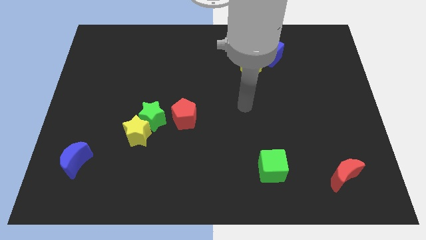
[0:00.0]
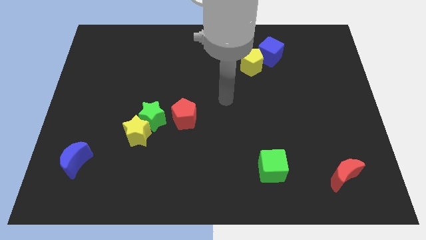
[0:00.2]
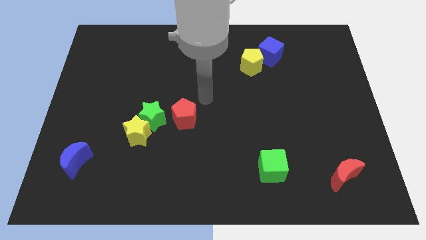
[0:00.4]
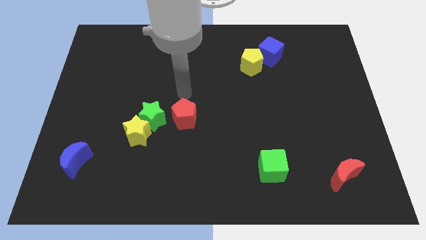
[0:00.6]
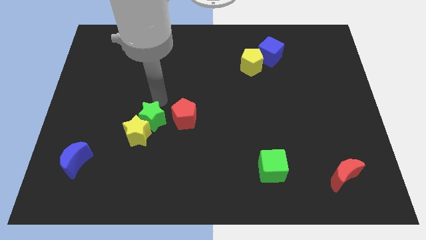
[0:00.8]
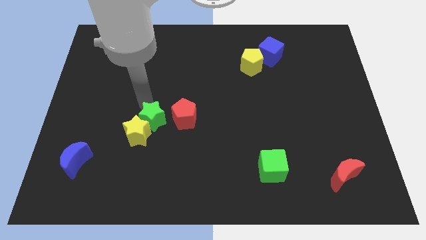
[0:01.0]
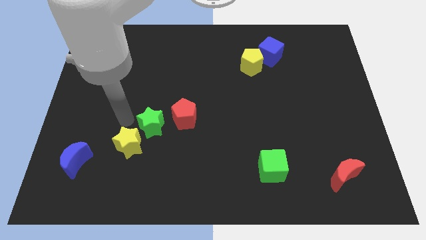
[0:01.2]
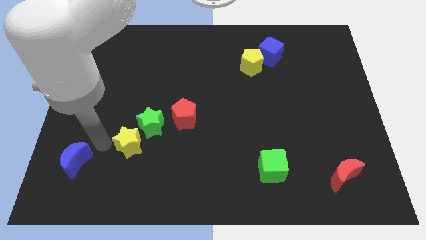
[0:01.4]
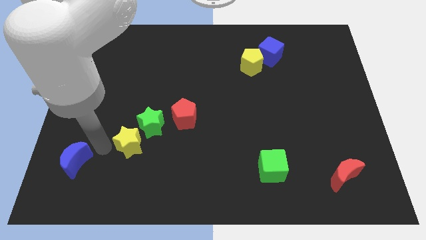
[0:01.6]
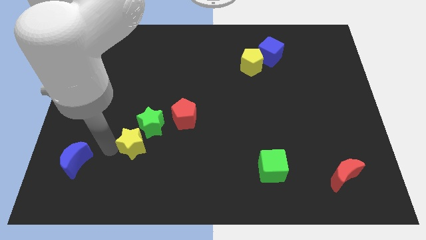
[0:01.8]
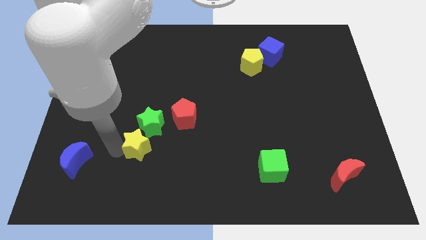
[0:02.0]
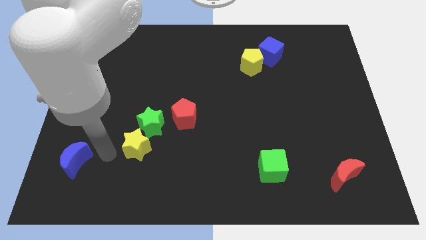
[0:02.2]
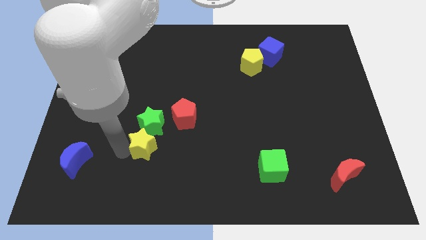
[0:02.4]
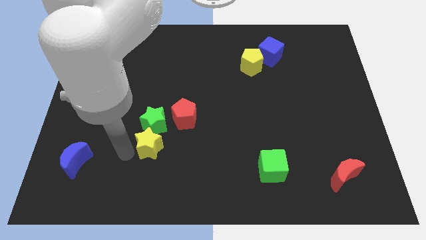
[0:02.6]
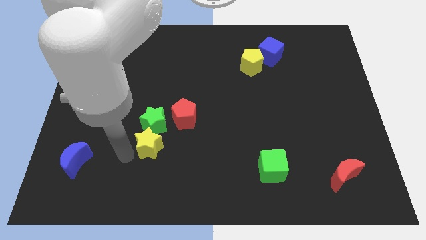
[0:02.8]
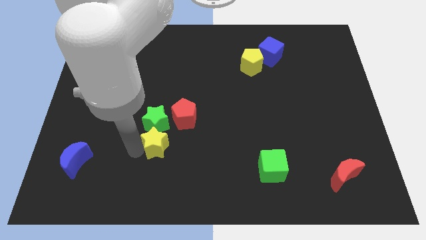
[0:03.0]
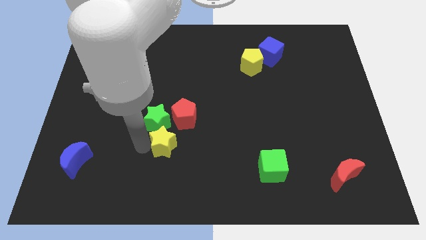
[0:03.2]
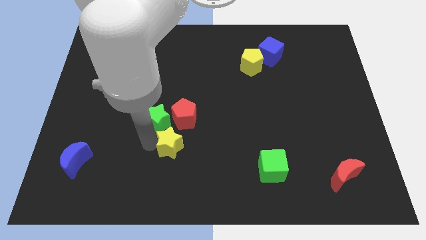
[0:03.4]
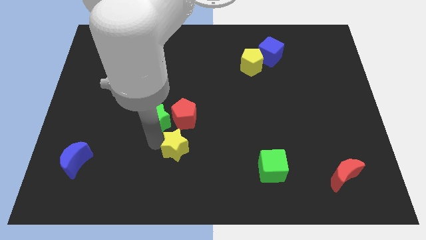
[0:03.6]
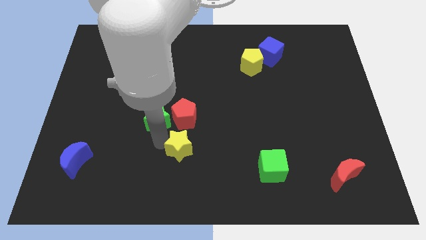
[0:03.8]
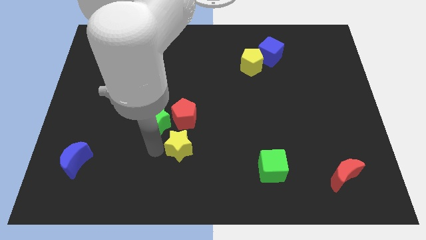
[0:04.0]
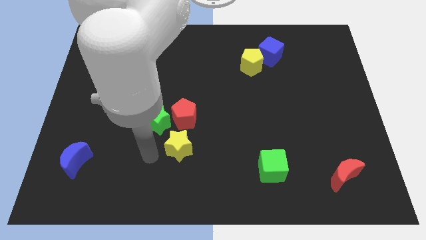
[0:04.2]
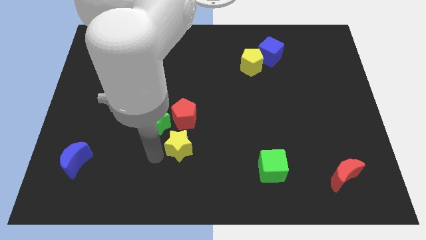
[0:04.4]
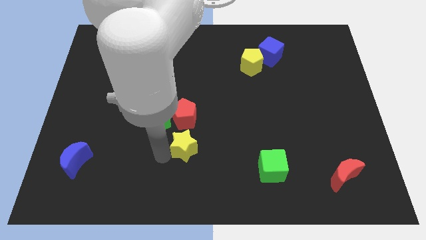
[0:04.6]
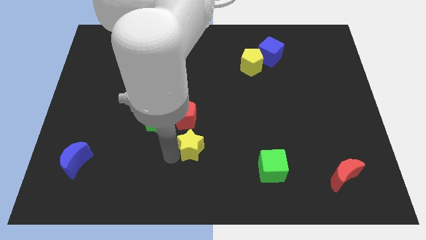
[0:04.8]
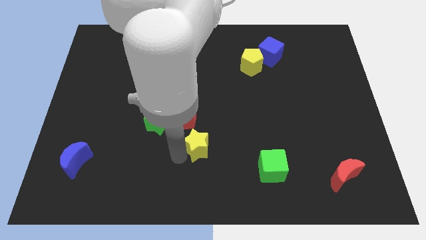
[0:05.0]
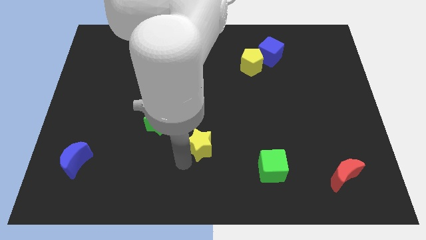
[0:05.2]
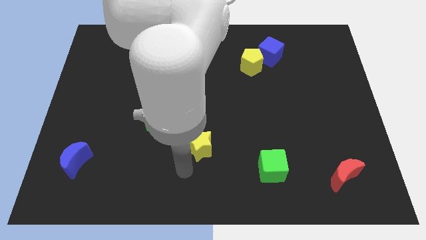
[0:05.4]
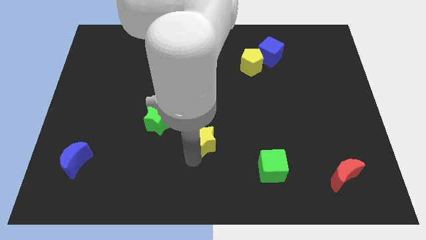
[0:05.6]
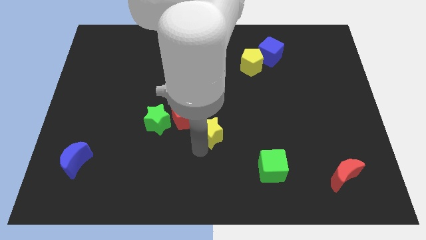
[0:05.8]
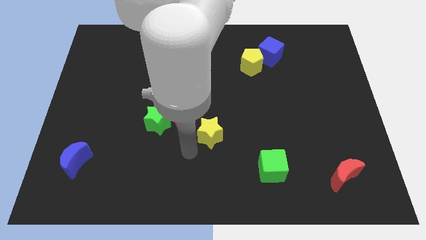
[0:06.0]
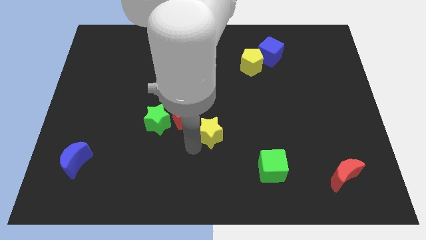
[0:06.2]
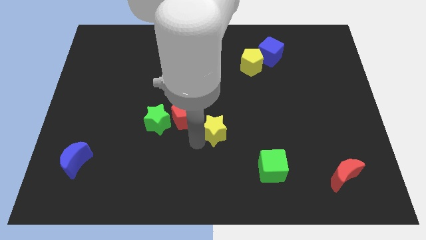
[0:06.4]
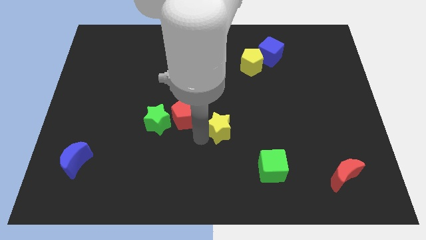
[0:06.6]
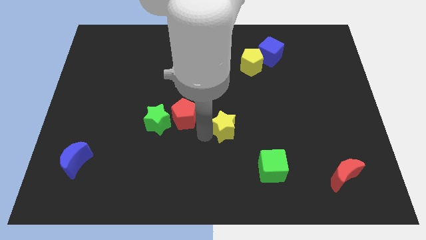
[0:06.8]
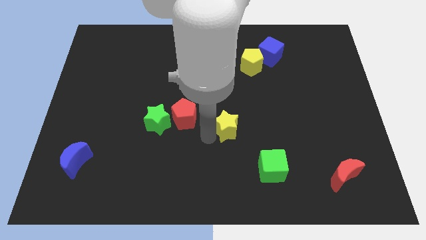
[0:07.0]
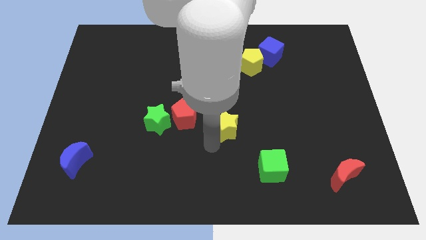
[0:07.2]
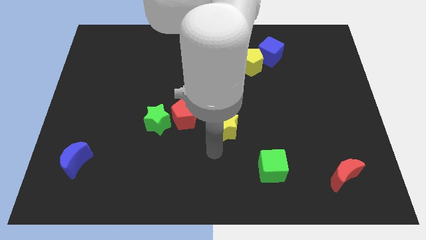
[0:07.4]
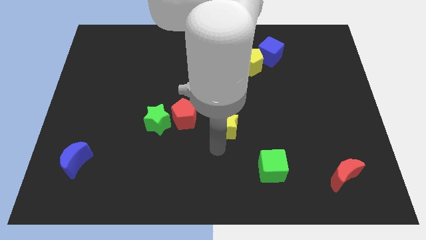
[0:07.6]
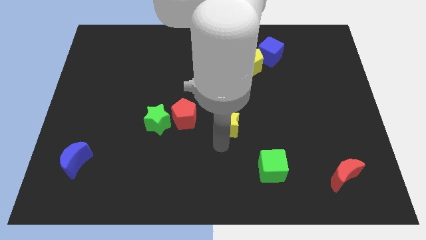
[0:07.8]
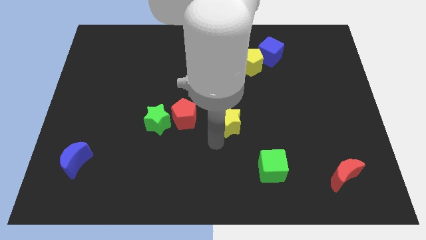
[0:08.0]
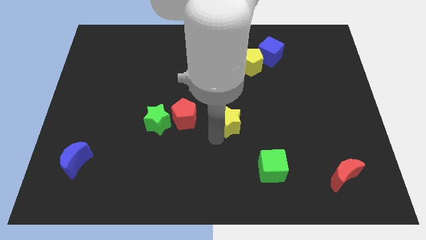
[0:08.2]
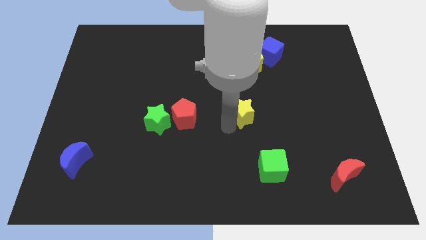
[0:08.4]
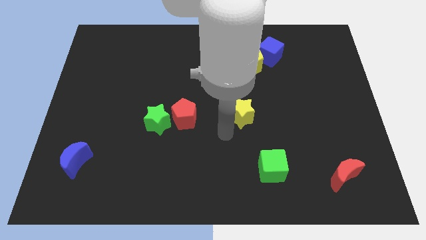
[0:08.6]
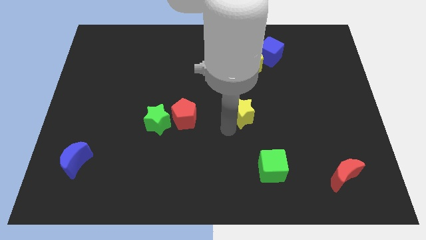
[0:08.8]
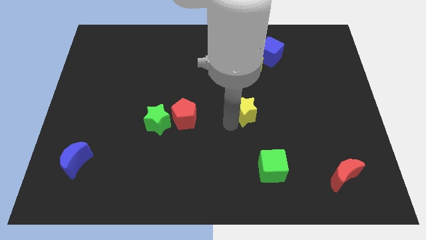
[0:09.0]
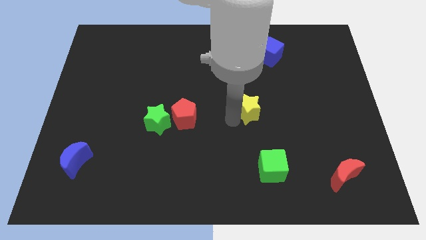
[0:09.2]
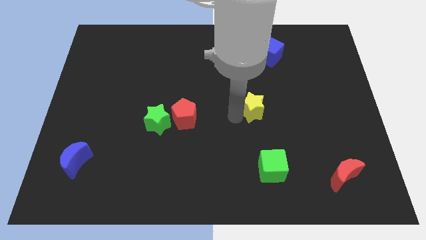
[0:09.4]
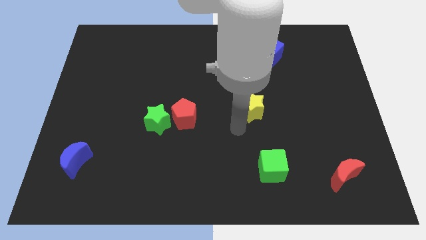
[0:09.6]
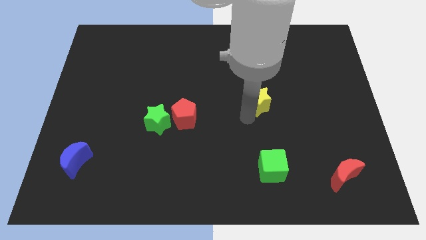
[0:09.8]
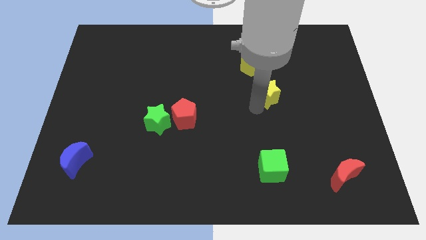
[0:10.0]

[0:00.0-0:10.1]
push the yellow star to the bottom side of the blue cube

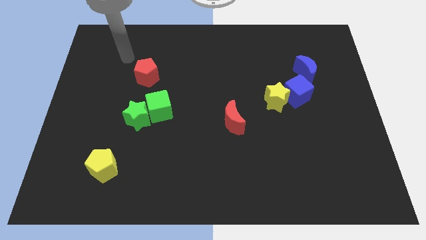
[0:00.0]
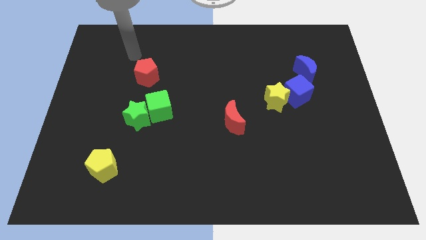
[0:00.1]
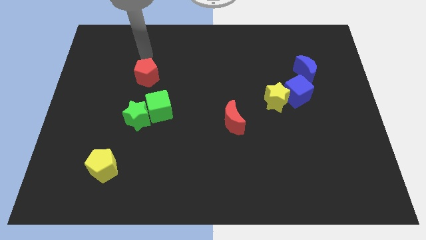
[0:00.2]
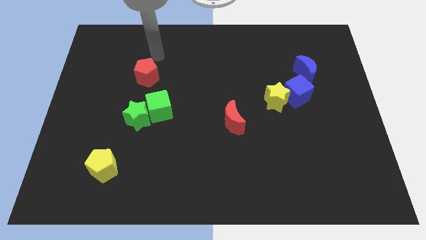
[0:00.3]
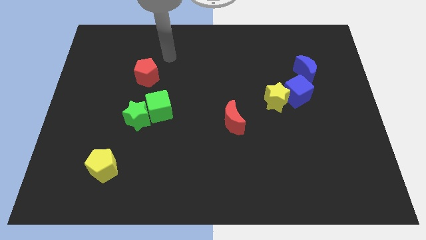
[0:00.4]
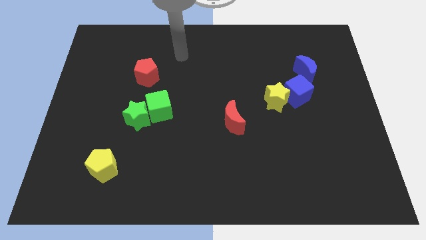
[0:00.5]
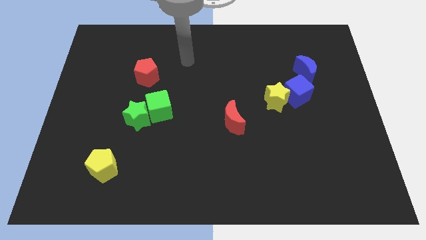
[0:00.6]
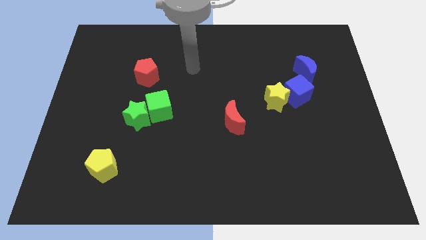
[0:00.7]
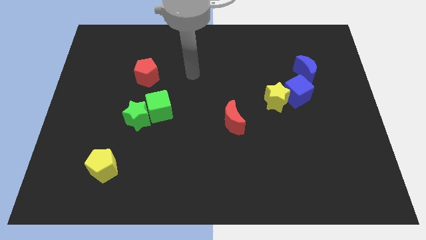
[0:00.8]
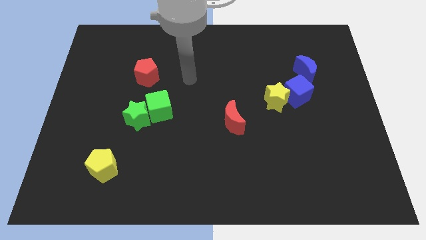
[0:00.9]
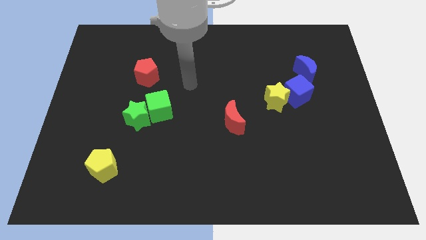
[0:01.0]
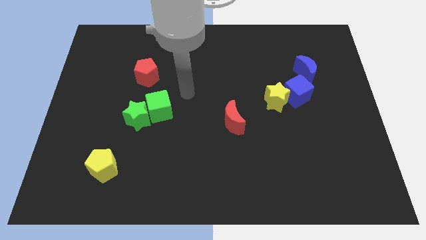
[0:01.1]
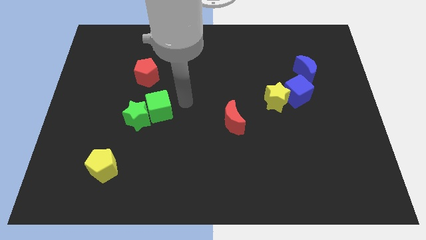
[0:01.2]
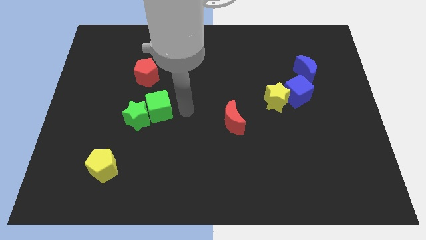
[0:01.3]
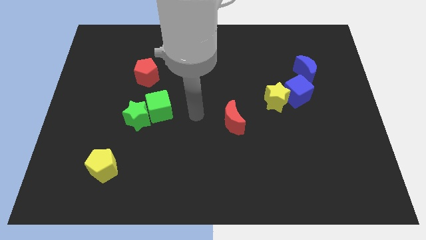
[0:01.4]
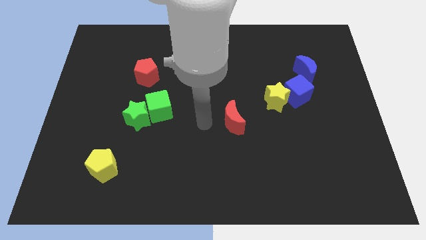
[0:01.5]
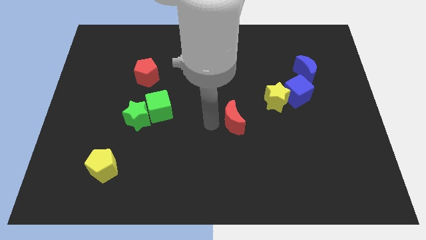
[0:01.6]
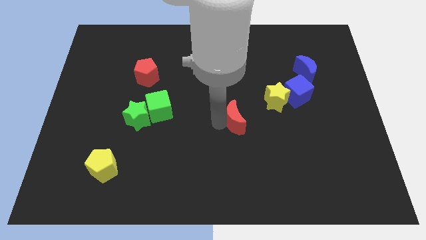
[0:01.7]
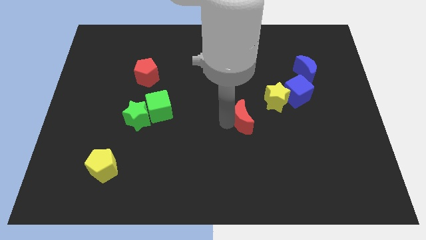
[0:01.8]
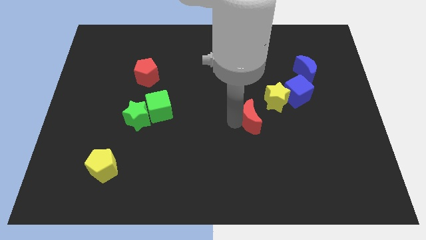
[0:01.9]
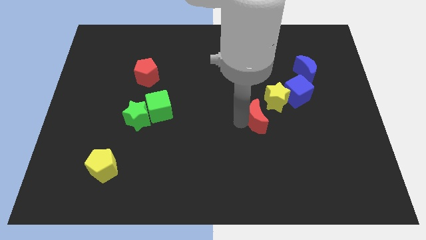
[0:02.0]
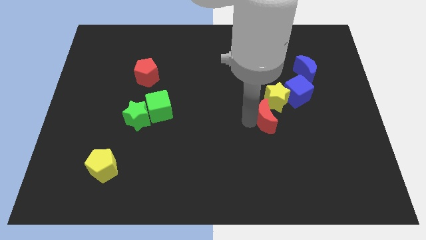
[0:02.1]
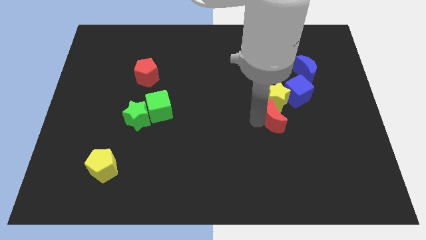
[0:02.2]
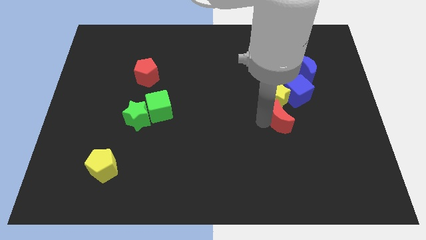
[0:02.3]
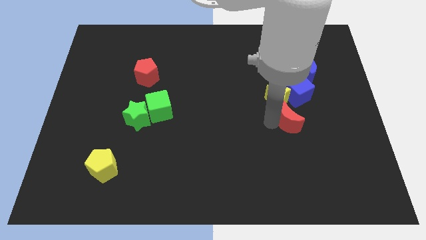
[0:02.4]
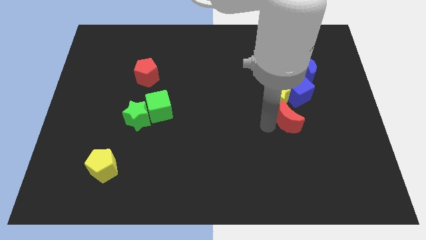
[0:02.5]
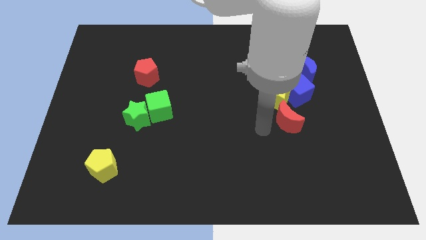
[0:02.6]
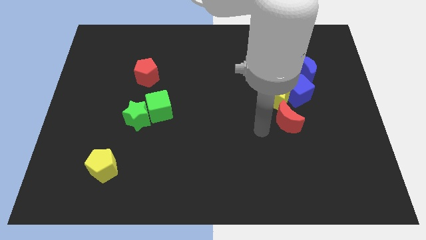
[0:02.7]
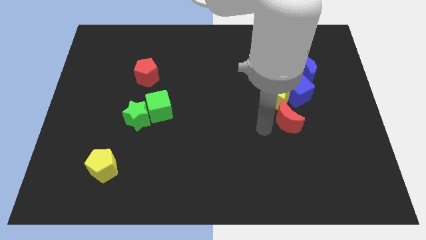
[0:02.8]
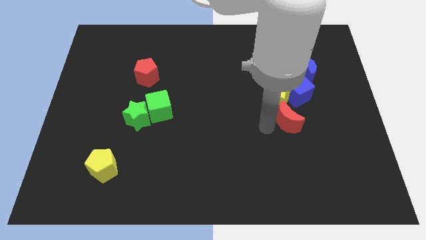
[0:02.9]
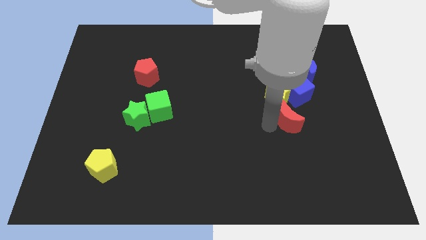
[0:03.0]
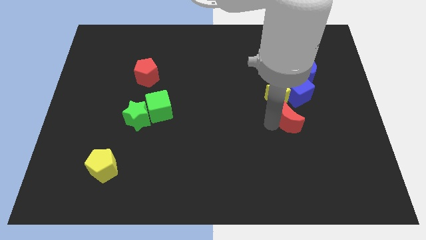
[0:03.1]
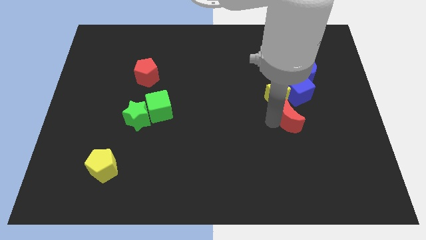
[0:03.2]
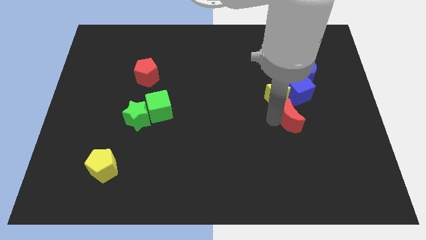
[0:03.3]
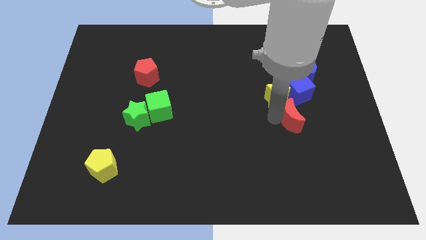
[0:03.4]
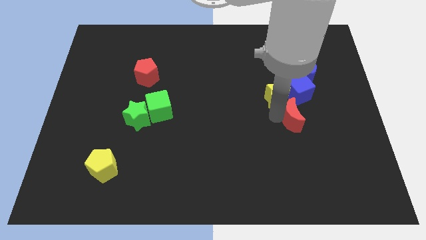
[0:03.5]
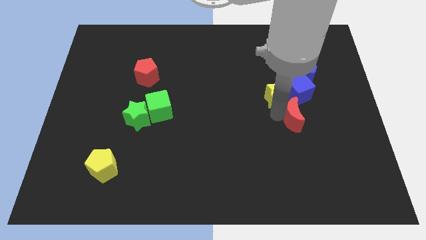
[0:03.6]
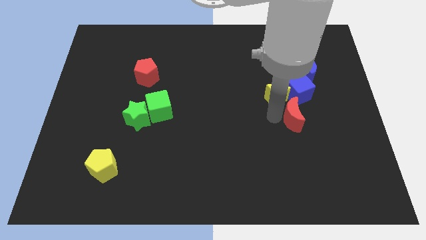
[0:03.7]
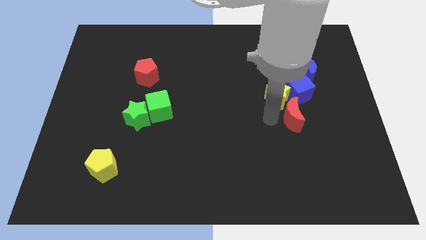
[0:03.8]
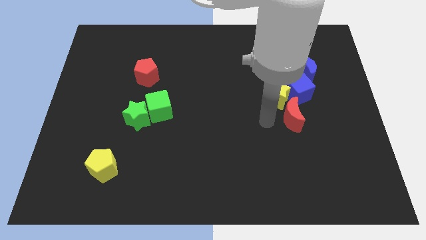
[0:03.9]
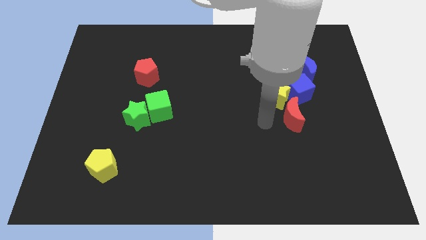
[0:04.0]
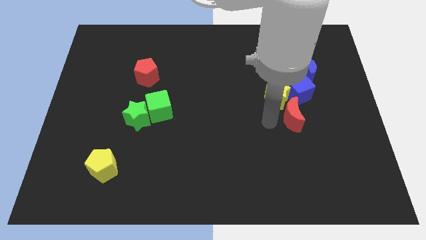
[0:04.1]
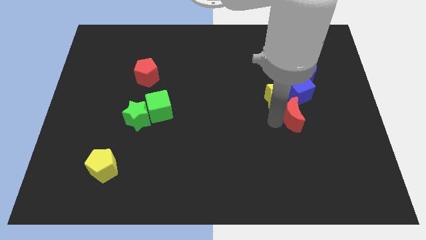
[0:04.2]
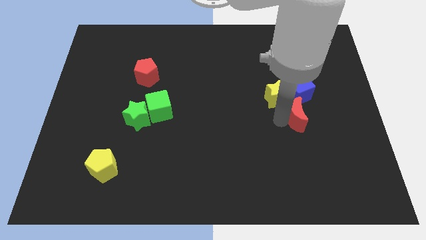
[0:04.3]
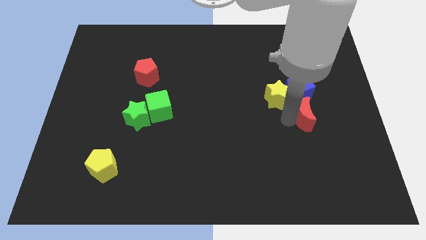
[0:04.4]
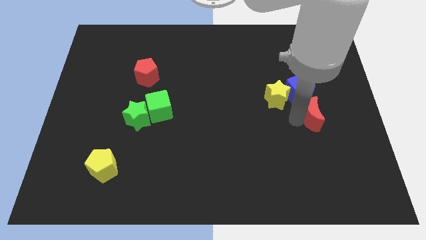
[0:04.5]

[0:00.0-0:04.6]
put the red moon diagonally down and to the right of the blue cube
